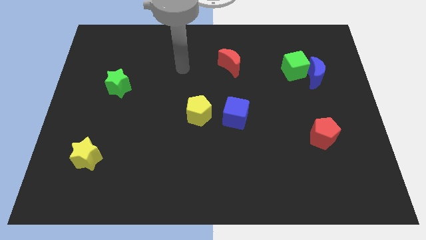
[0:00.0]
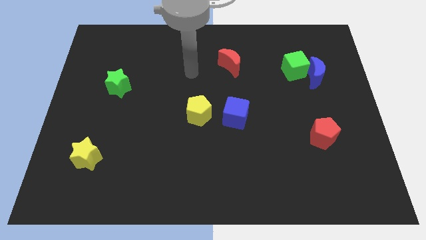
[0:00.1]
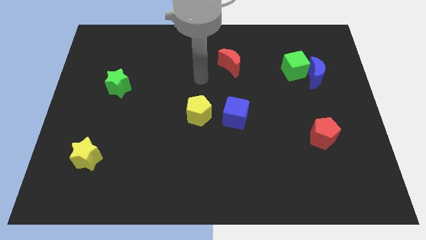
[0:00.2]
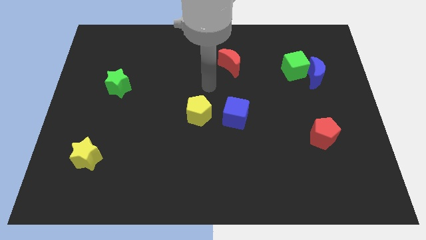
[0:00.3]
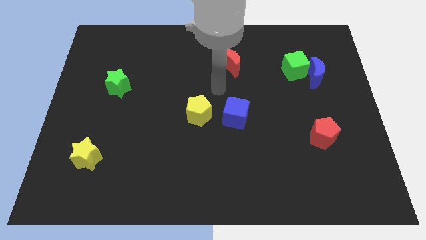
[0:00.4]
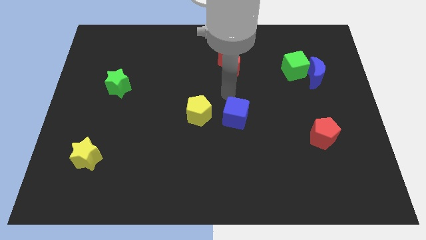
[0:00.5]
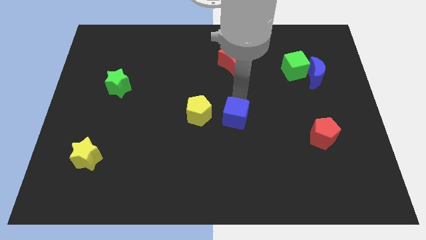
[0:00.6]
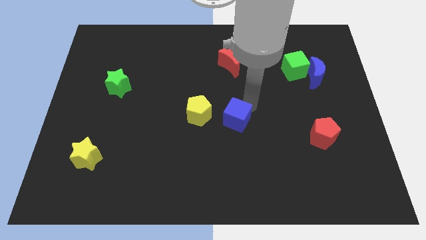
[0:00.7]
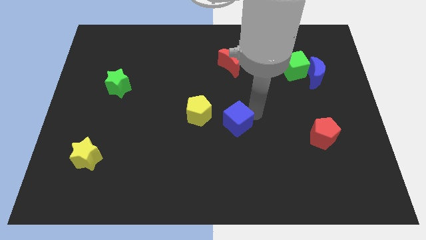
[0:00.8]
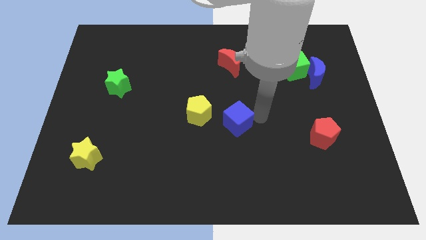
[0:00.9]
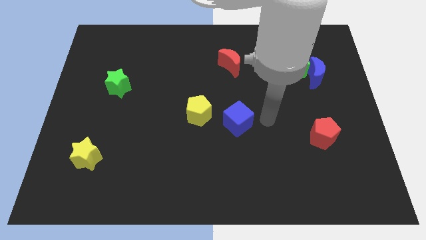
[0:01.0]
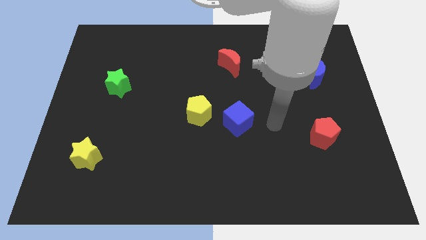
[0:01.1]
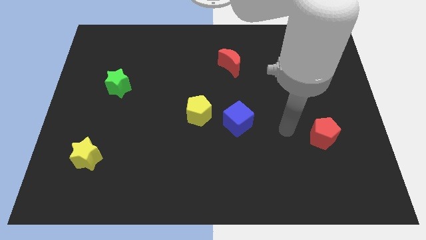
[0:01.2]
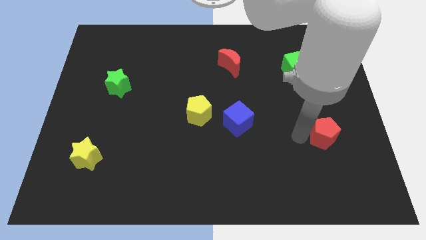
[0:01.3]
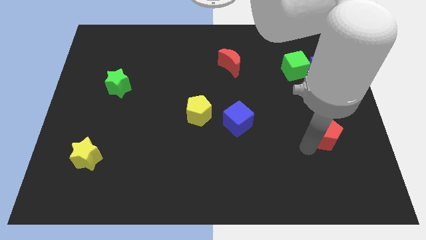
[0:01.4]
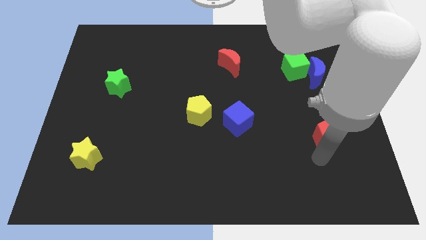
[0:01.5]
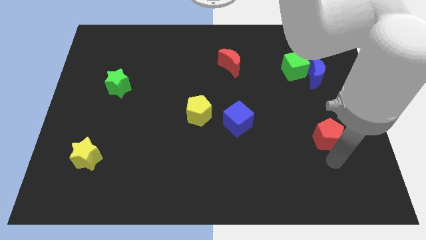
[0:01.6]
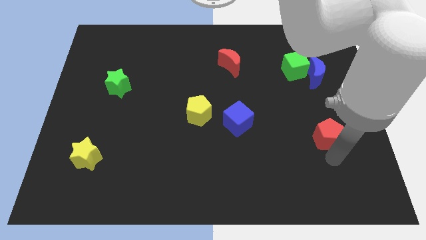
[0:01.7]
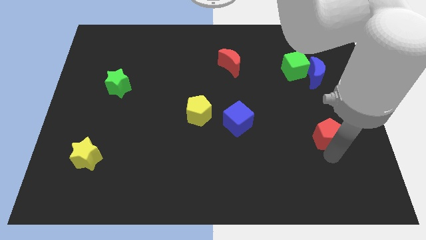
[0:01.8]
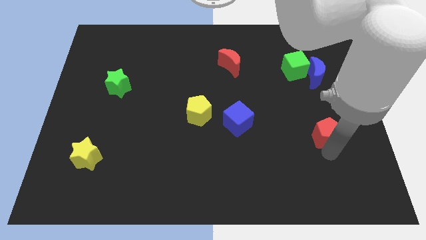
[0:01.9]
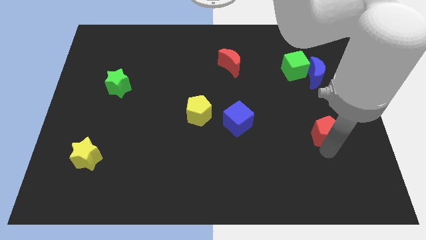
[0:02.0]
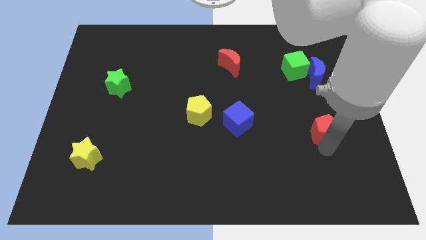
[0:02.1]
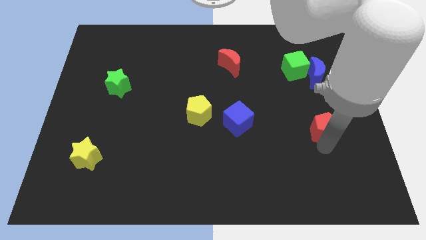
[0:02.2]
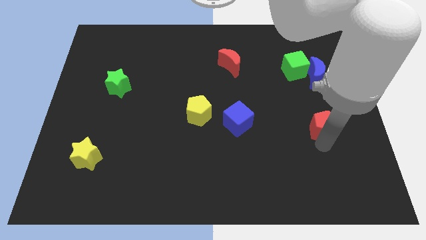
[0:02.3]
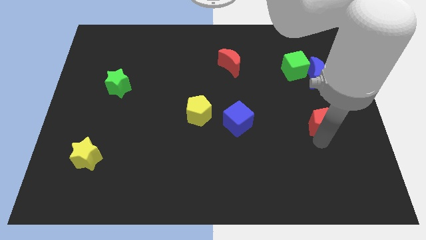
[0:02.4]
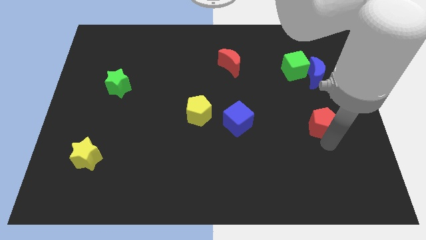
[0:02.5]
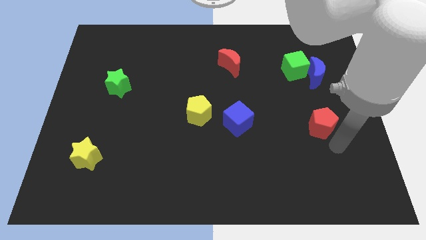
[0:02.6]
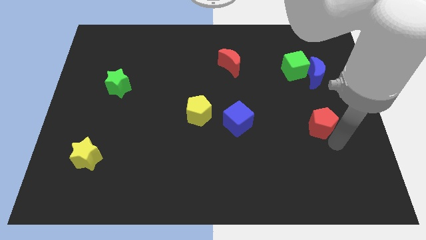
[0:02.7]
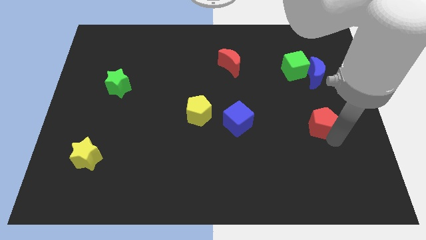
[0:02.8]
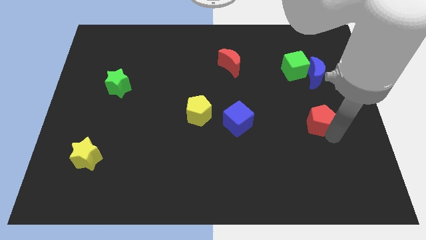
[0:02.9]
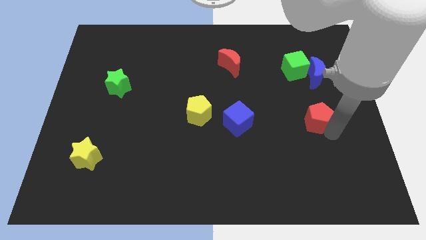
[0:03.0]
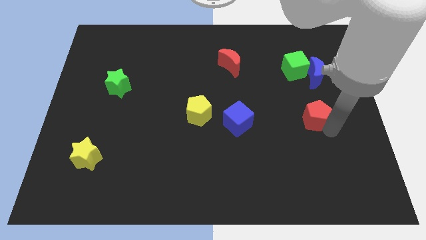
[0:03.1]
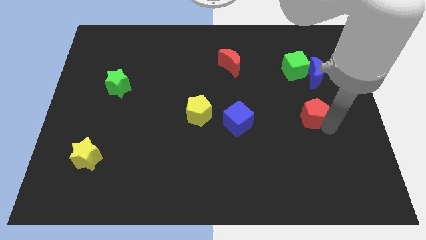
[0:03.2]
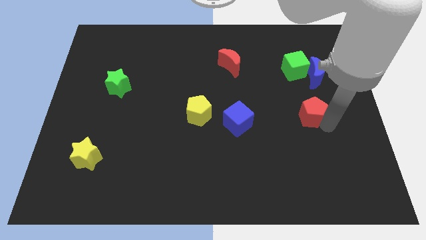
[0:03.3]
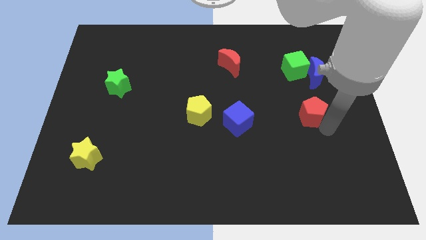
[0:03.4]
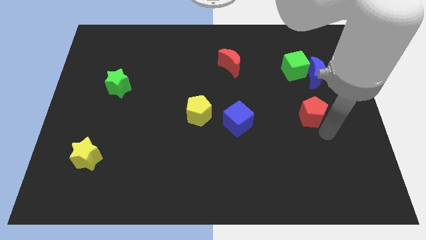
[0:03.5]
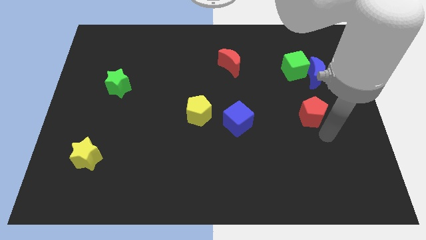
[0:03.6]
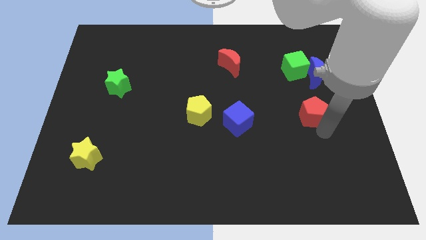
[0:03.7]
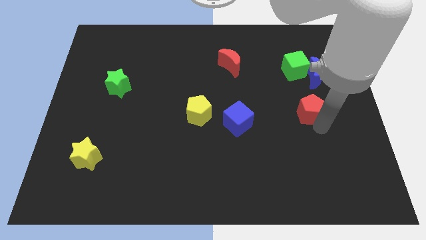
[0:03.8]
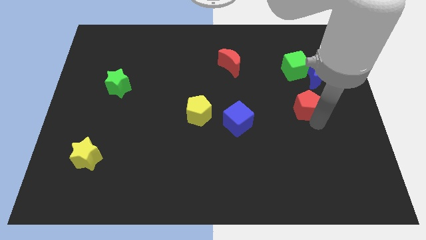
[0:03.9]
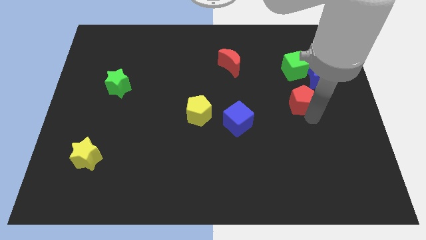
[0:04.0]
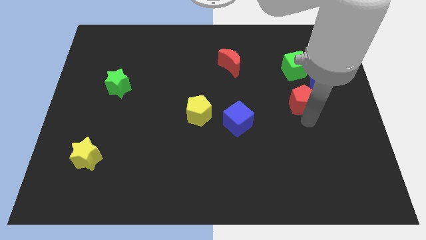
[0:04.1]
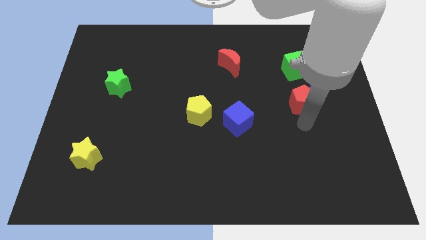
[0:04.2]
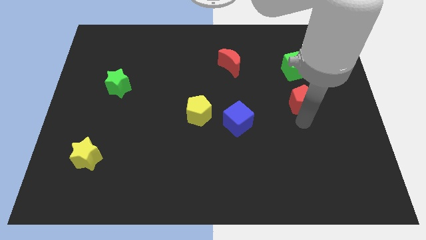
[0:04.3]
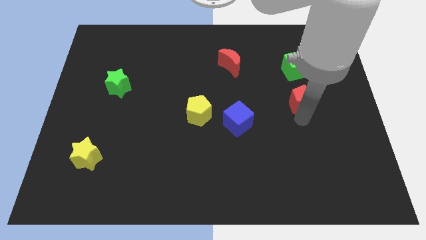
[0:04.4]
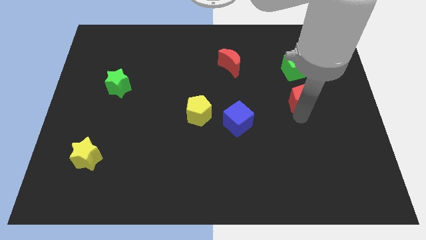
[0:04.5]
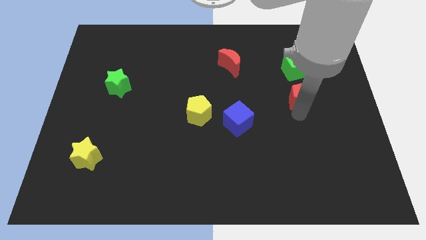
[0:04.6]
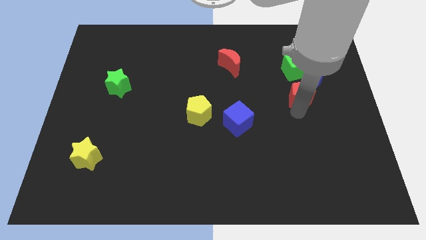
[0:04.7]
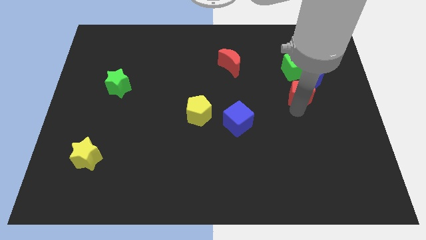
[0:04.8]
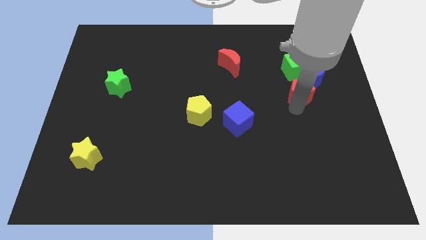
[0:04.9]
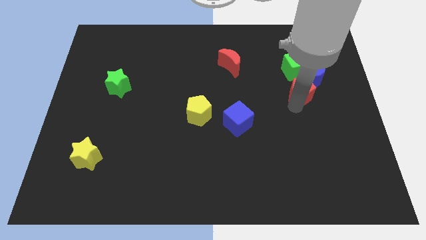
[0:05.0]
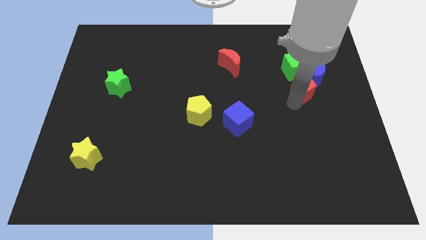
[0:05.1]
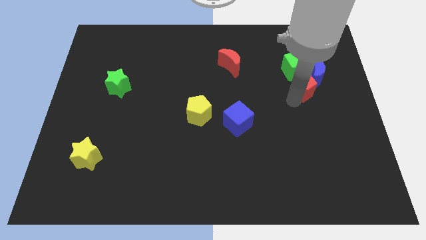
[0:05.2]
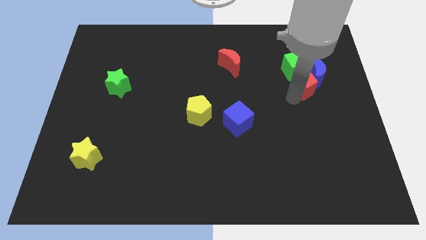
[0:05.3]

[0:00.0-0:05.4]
slide the red pentagon towards the green cube

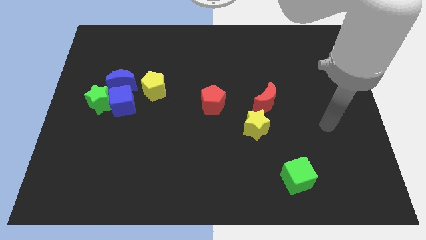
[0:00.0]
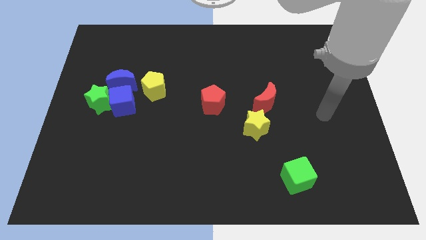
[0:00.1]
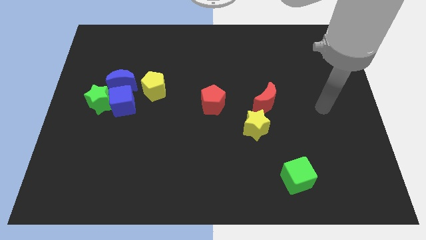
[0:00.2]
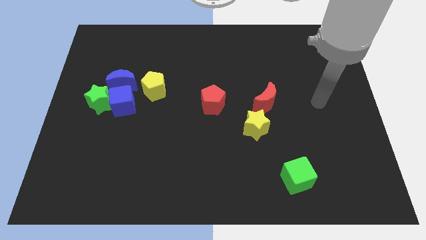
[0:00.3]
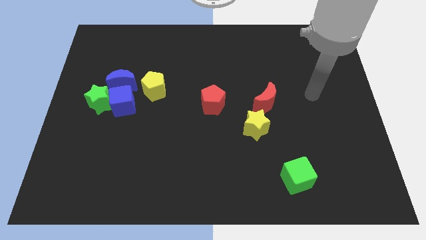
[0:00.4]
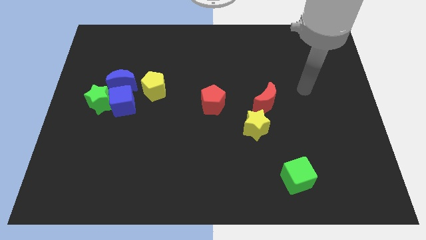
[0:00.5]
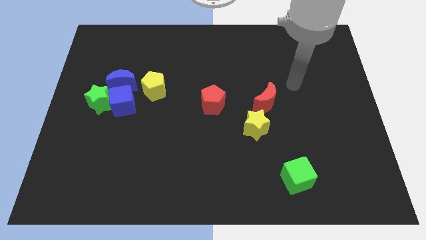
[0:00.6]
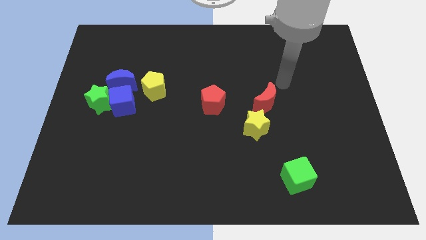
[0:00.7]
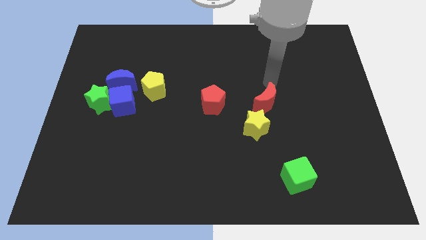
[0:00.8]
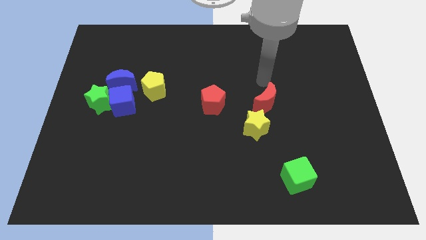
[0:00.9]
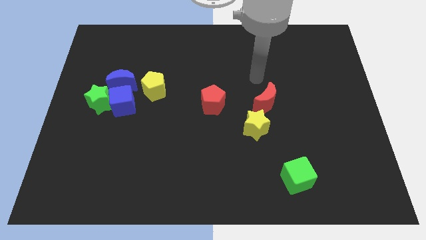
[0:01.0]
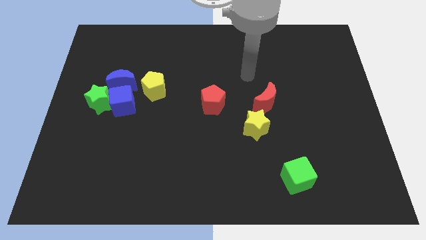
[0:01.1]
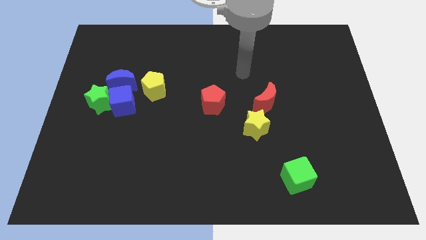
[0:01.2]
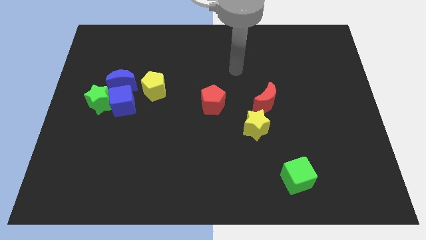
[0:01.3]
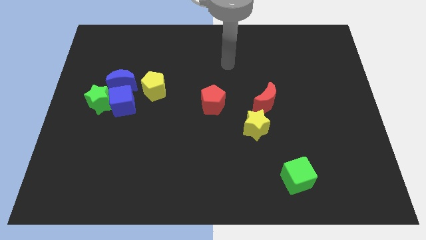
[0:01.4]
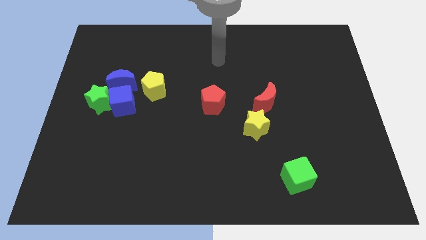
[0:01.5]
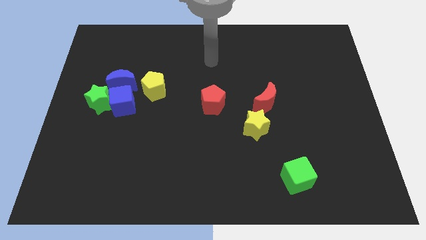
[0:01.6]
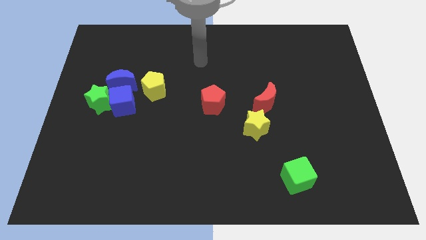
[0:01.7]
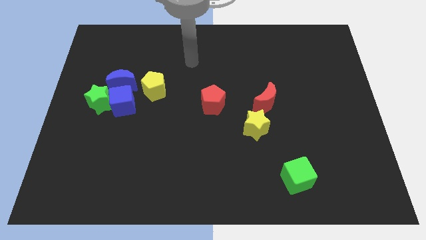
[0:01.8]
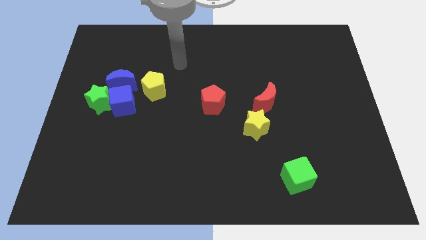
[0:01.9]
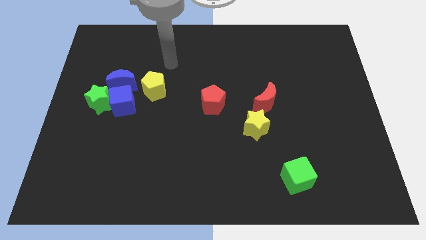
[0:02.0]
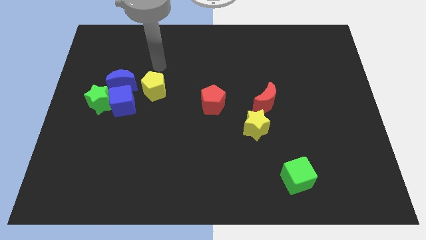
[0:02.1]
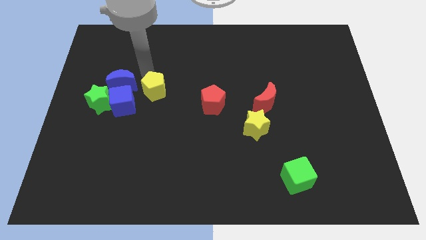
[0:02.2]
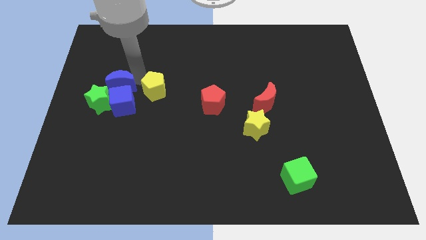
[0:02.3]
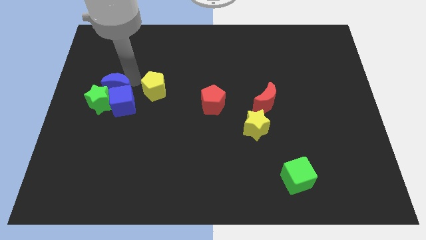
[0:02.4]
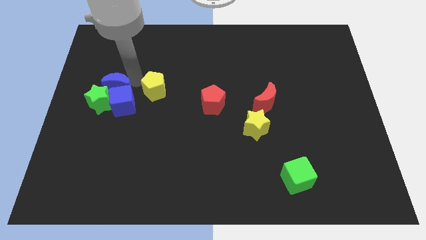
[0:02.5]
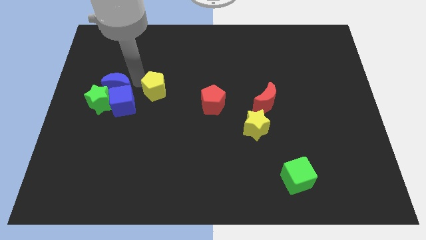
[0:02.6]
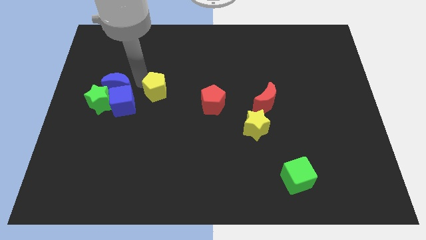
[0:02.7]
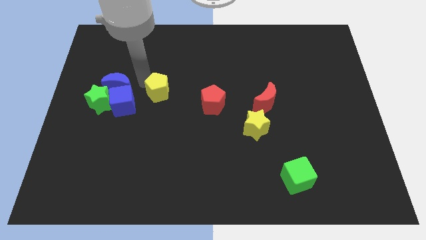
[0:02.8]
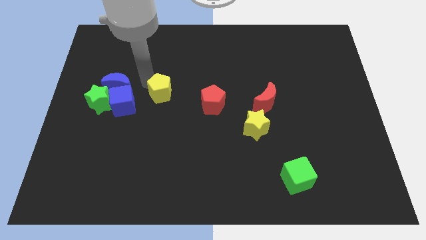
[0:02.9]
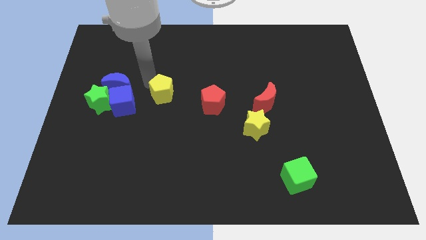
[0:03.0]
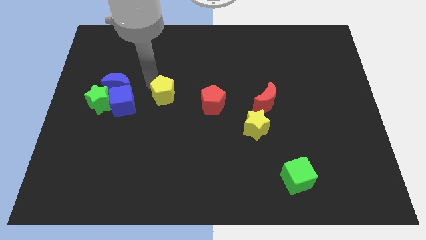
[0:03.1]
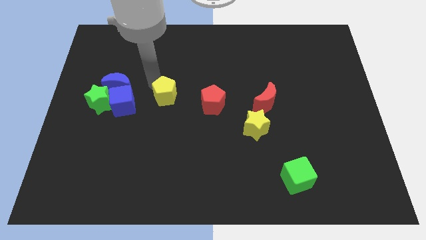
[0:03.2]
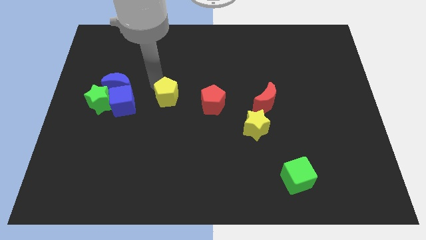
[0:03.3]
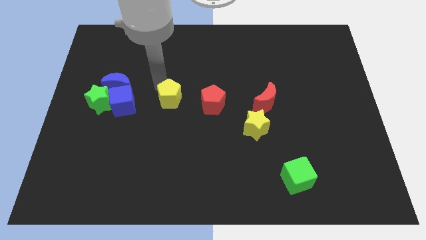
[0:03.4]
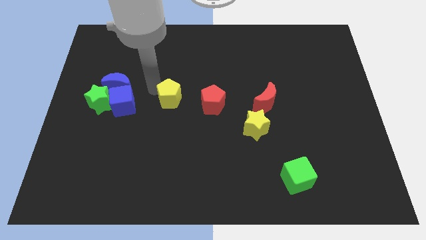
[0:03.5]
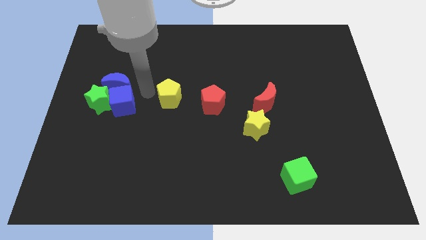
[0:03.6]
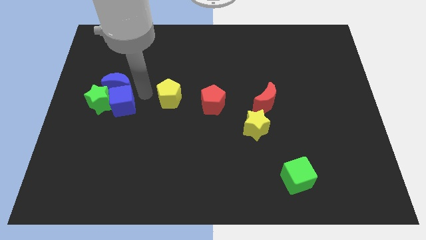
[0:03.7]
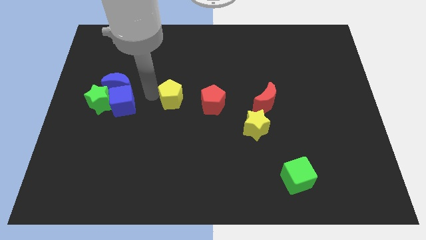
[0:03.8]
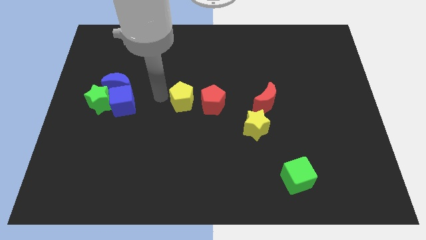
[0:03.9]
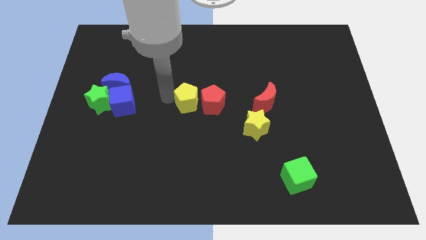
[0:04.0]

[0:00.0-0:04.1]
slide the yellow pentagon towards the red pentagon
